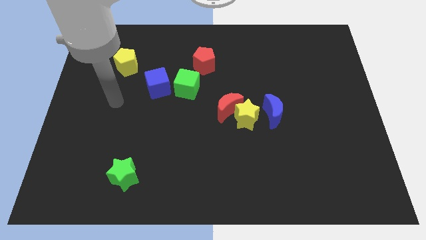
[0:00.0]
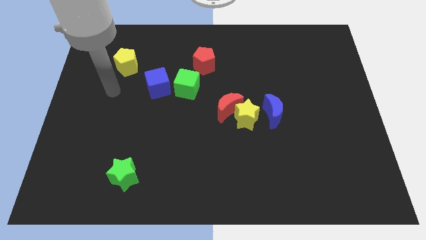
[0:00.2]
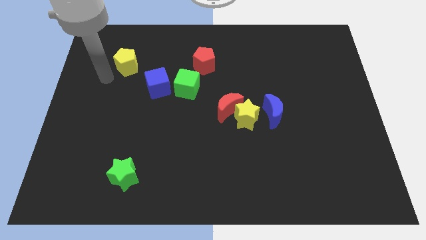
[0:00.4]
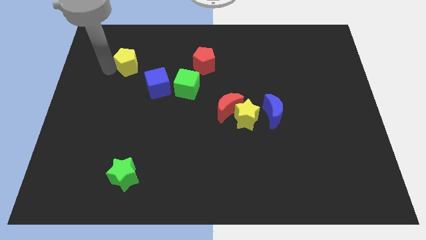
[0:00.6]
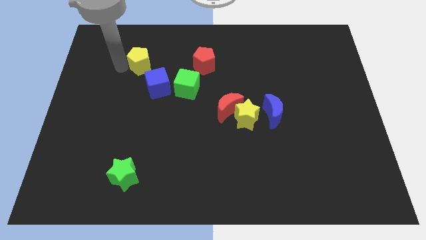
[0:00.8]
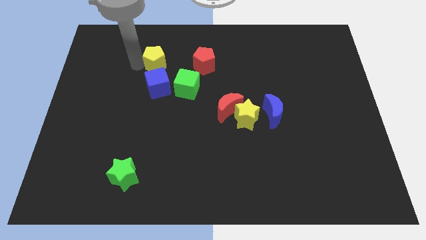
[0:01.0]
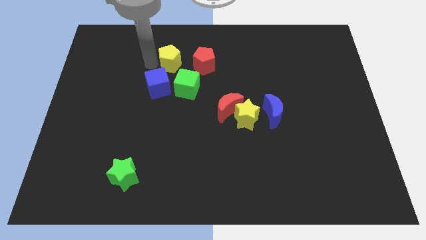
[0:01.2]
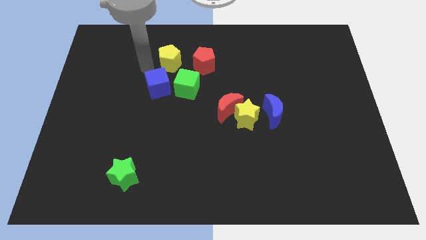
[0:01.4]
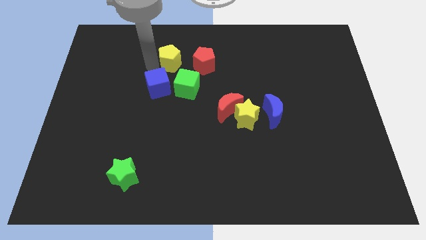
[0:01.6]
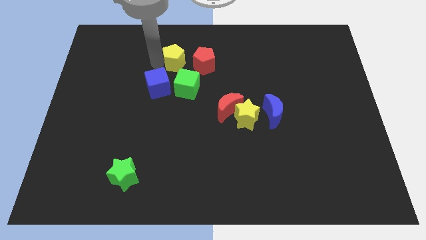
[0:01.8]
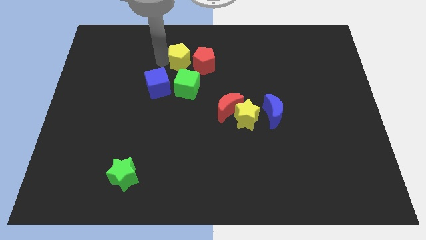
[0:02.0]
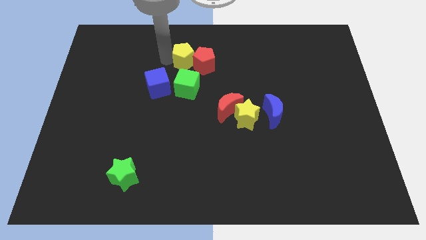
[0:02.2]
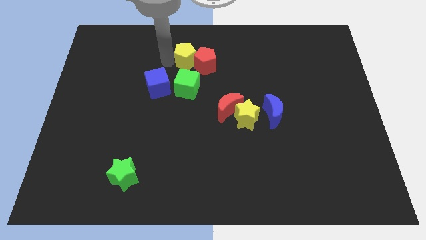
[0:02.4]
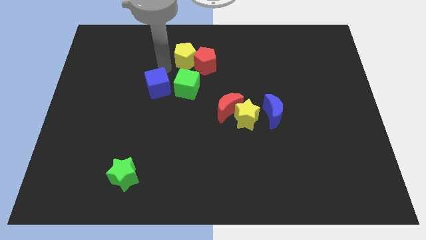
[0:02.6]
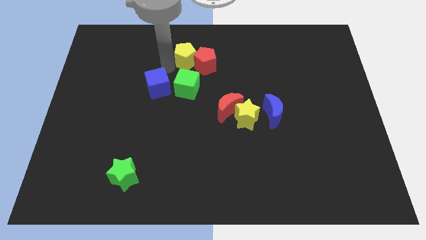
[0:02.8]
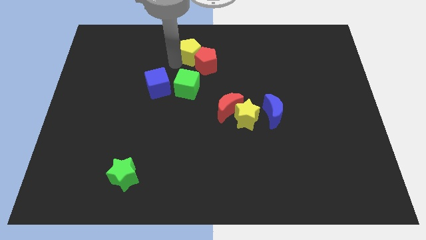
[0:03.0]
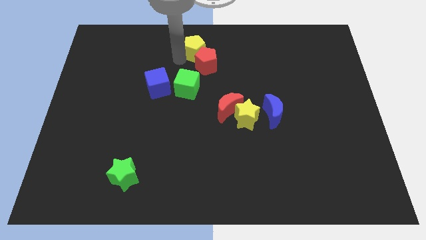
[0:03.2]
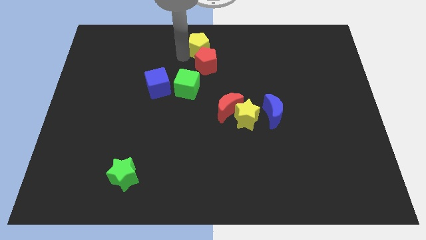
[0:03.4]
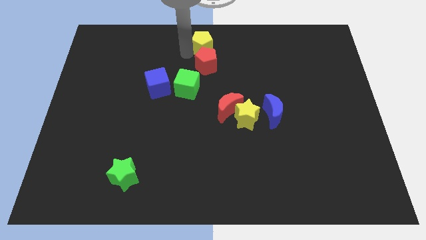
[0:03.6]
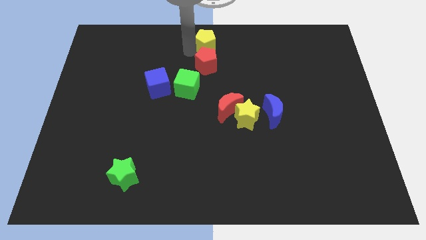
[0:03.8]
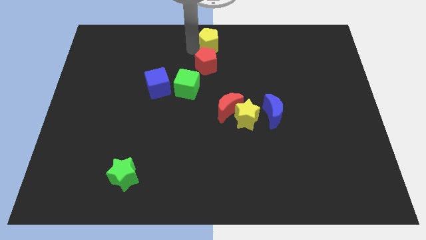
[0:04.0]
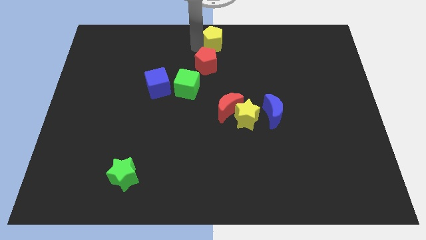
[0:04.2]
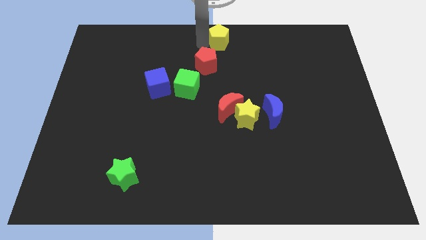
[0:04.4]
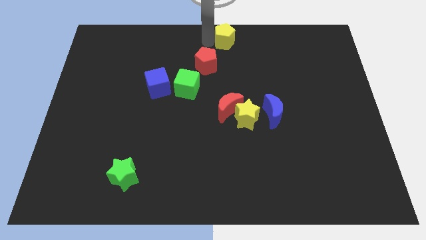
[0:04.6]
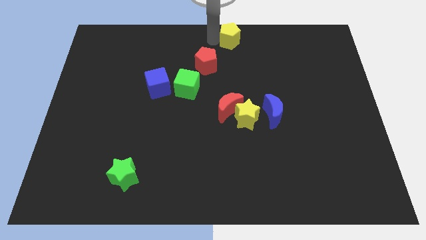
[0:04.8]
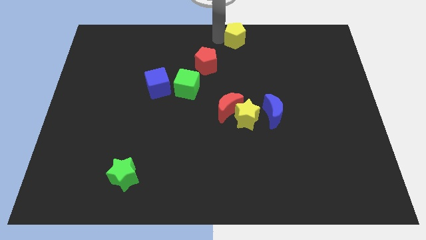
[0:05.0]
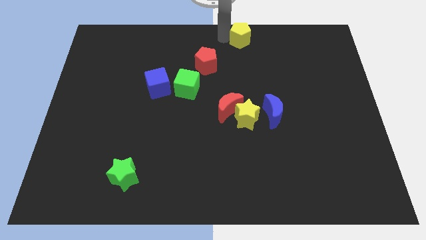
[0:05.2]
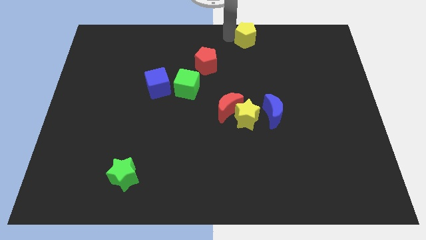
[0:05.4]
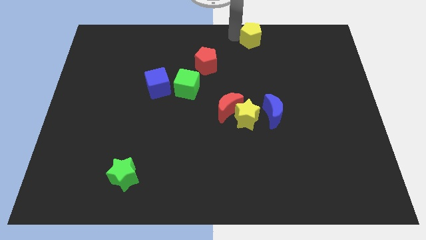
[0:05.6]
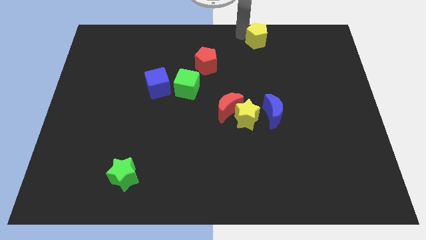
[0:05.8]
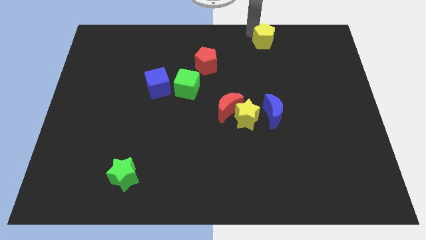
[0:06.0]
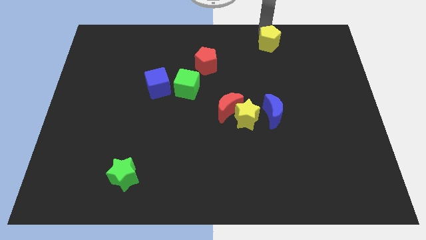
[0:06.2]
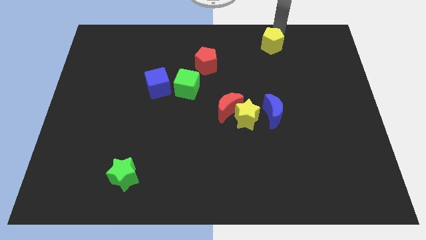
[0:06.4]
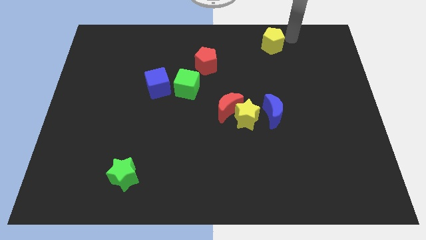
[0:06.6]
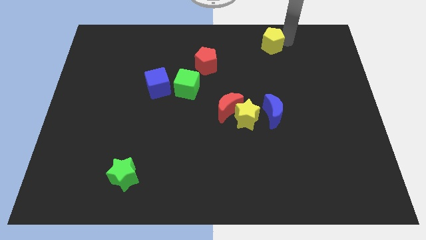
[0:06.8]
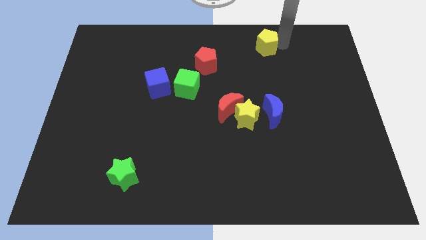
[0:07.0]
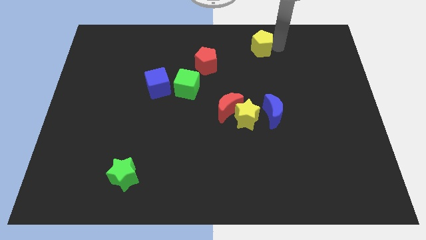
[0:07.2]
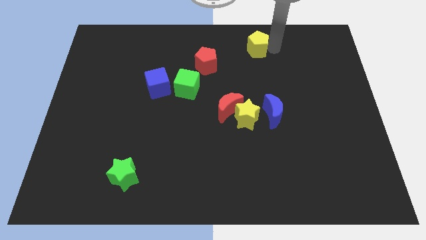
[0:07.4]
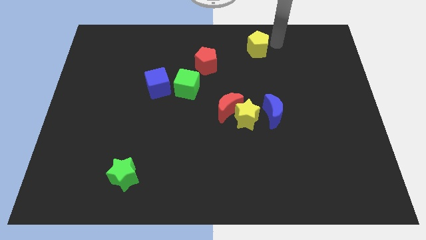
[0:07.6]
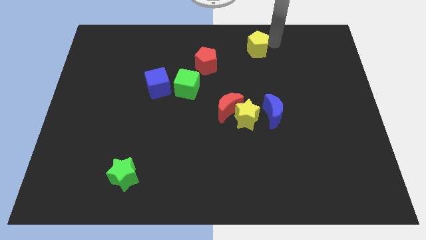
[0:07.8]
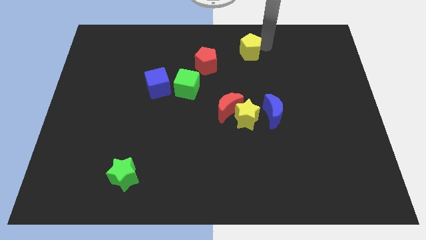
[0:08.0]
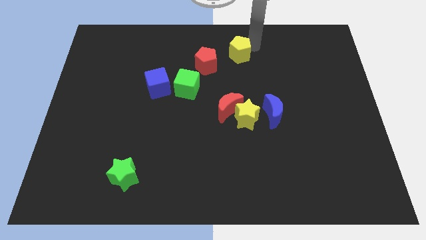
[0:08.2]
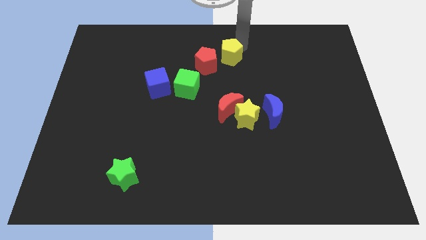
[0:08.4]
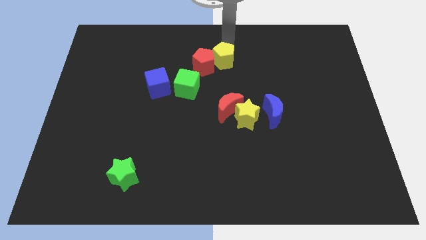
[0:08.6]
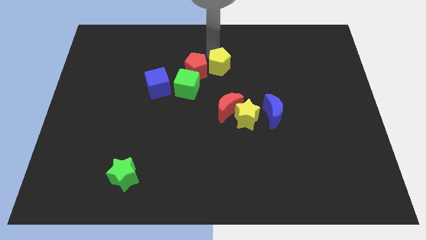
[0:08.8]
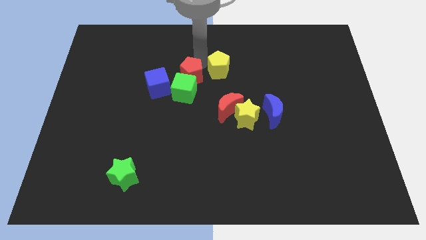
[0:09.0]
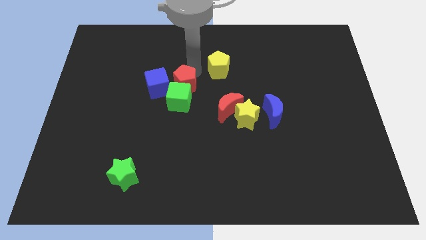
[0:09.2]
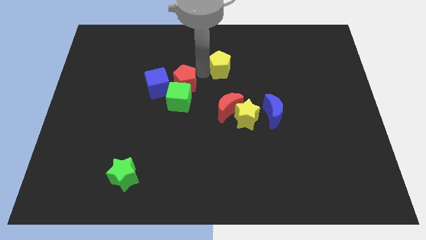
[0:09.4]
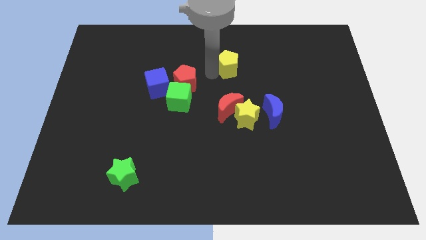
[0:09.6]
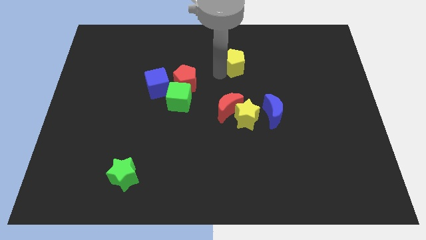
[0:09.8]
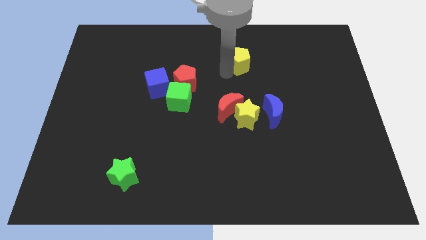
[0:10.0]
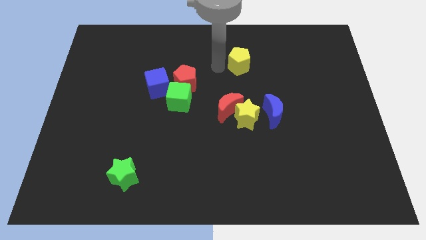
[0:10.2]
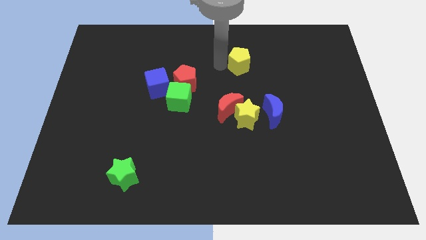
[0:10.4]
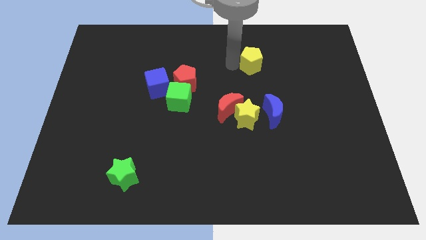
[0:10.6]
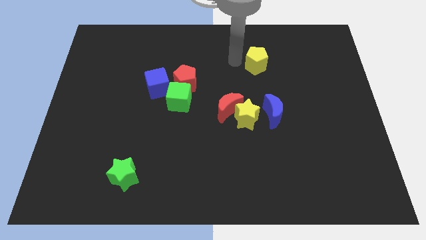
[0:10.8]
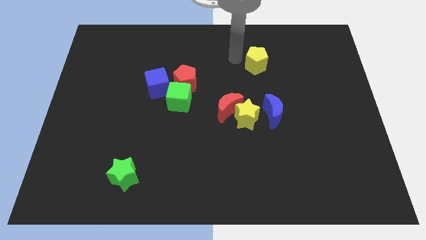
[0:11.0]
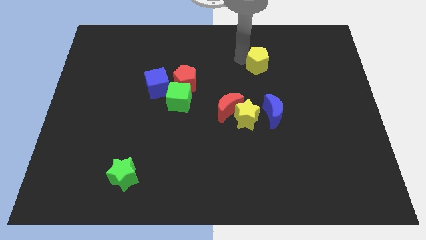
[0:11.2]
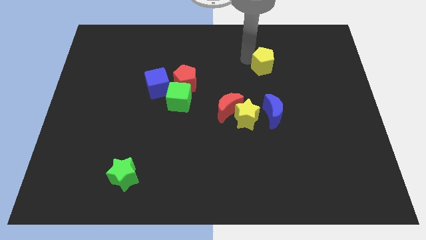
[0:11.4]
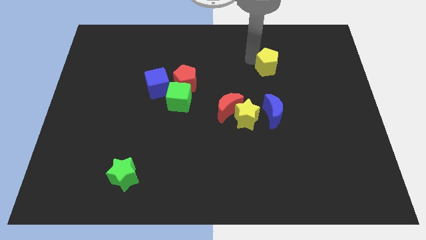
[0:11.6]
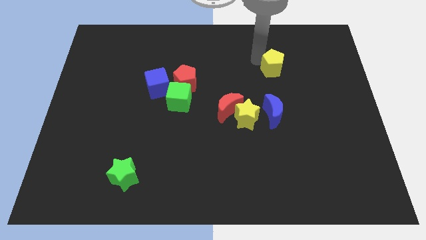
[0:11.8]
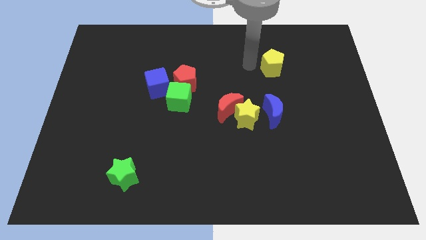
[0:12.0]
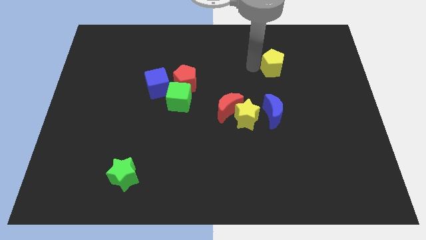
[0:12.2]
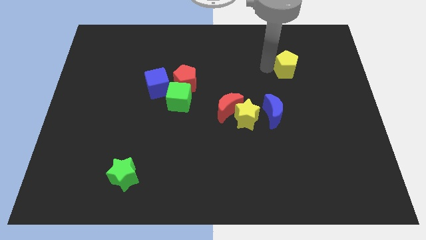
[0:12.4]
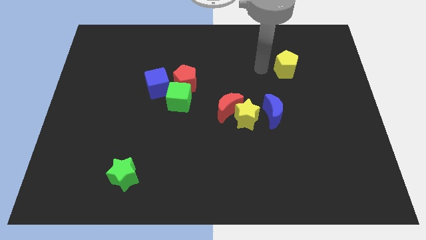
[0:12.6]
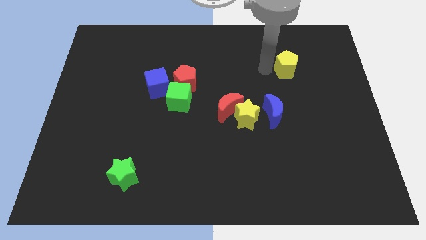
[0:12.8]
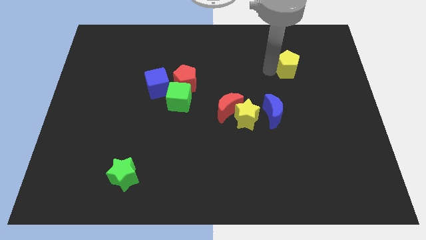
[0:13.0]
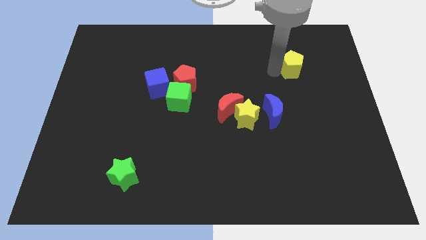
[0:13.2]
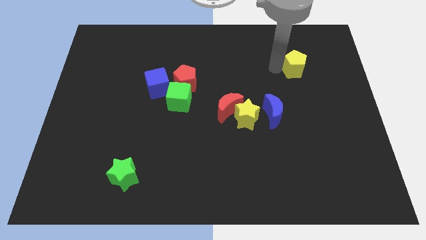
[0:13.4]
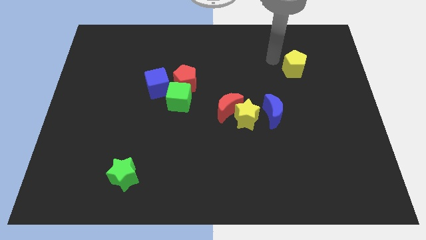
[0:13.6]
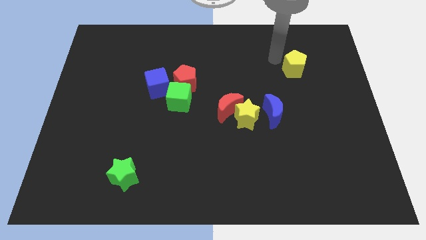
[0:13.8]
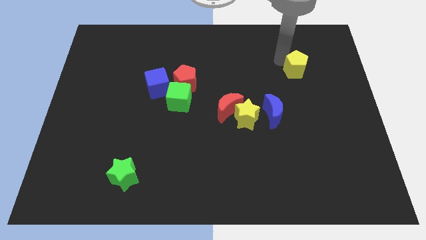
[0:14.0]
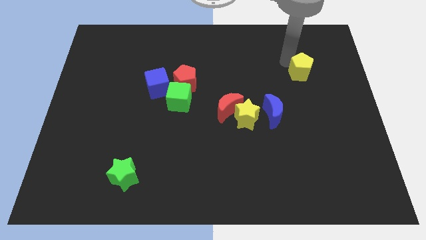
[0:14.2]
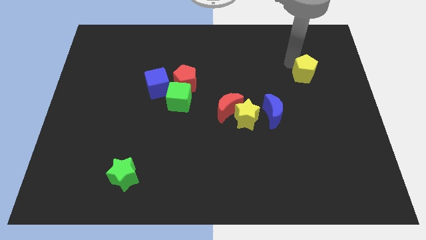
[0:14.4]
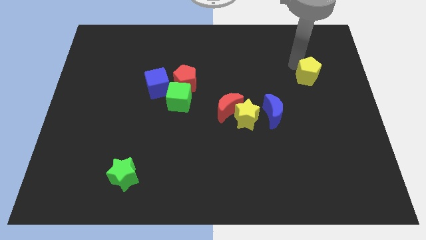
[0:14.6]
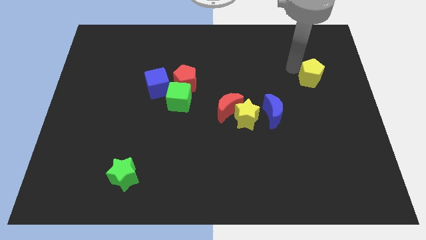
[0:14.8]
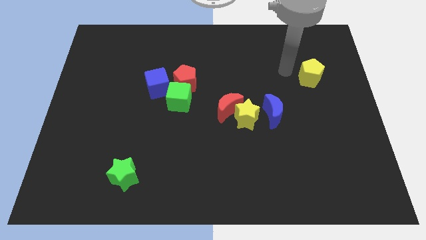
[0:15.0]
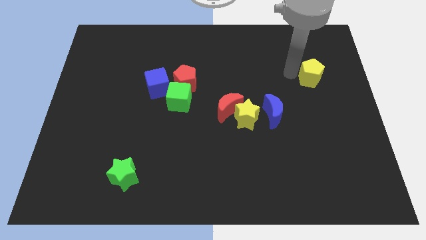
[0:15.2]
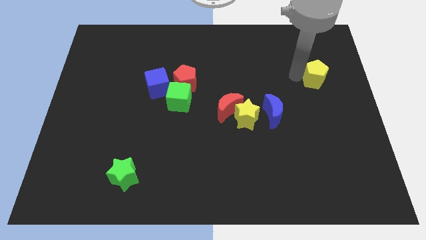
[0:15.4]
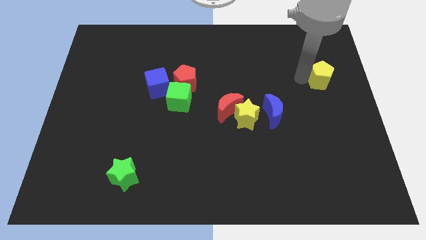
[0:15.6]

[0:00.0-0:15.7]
put the yellow pentagon to the right side
